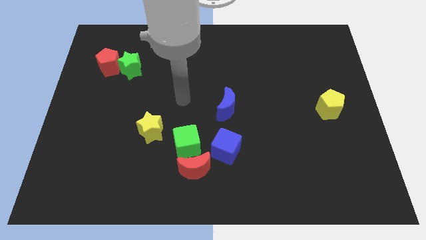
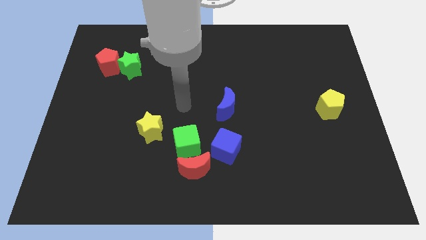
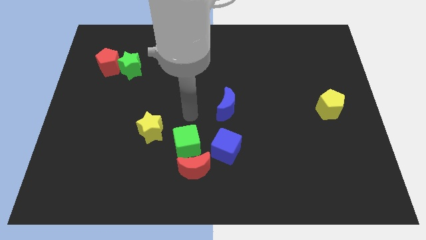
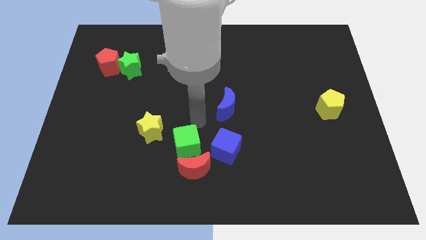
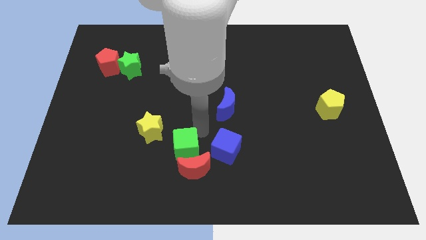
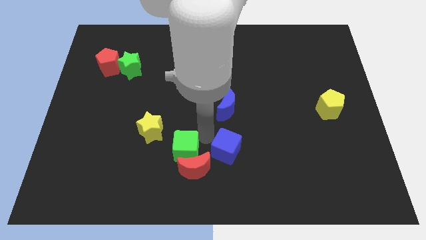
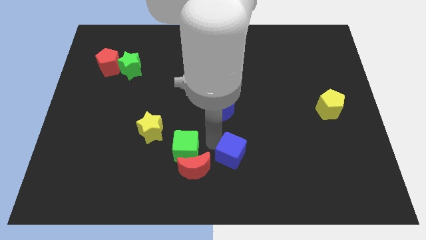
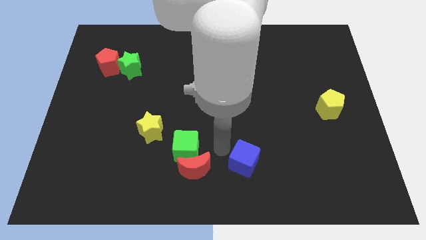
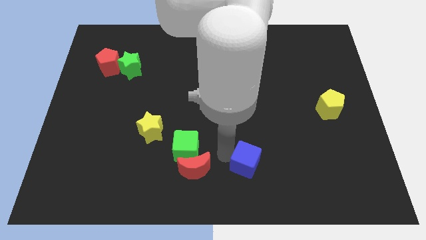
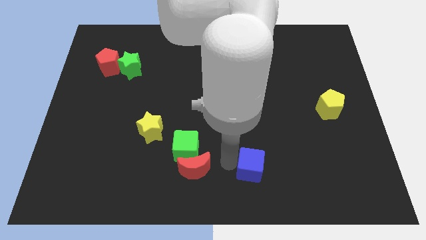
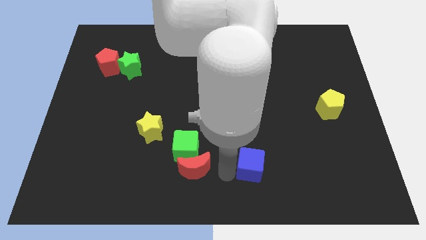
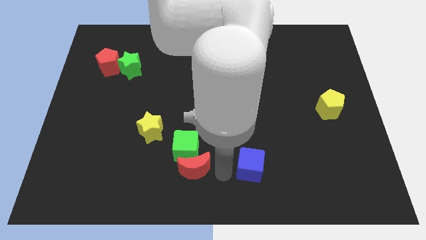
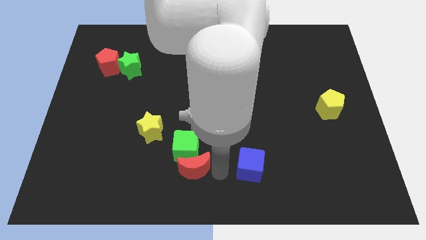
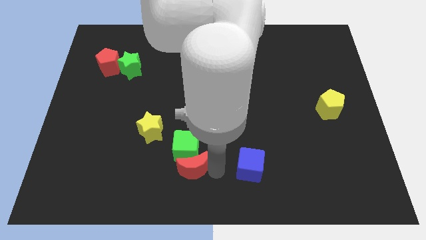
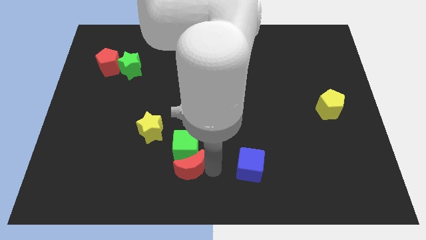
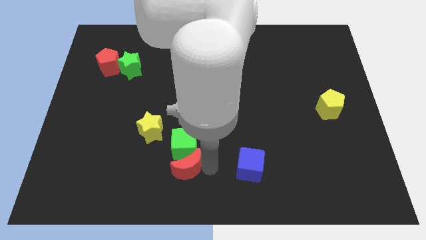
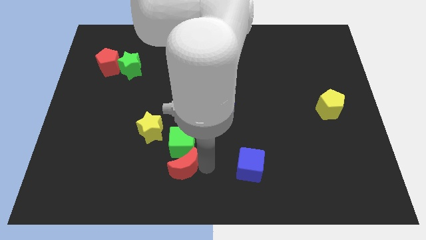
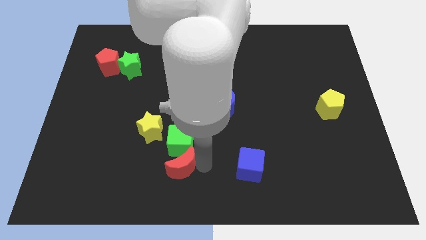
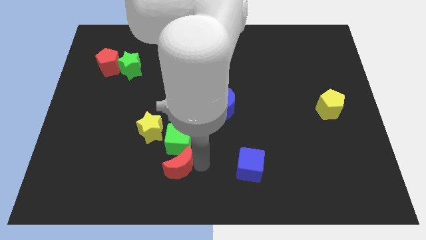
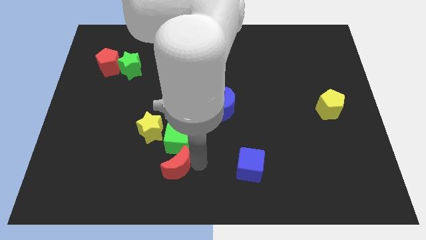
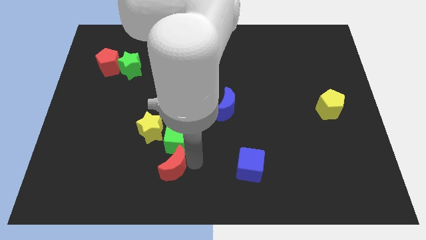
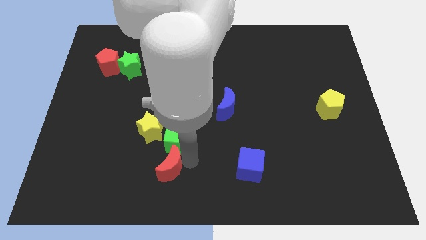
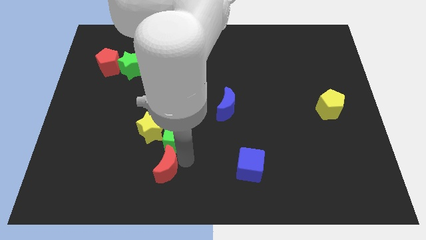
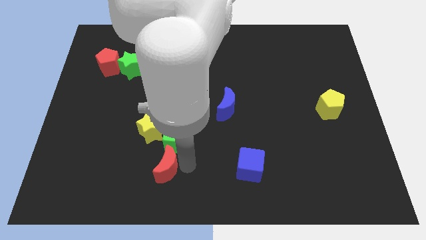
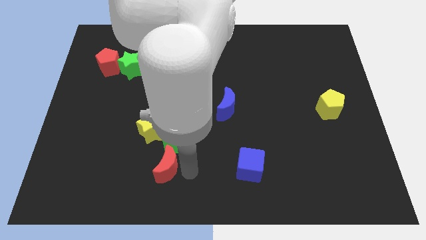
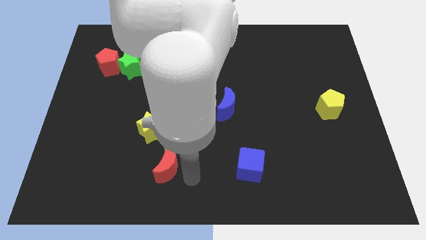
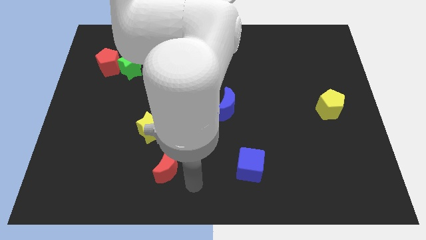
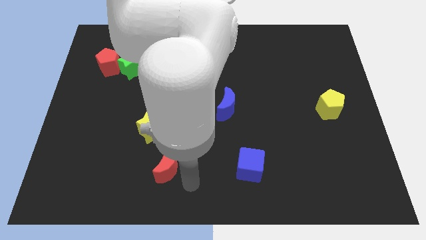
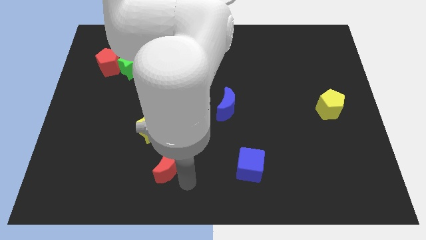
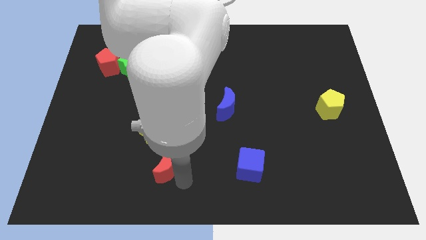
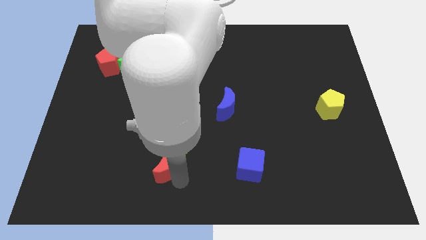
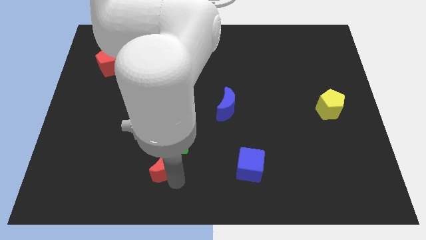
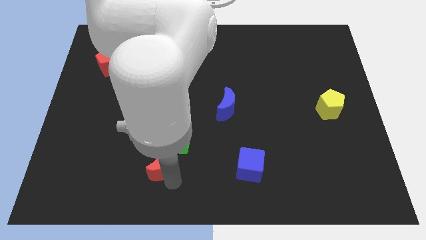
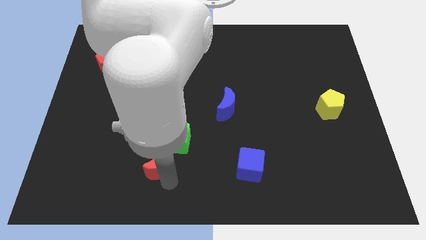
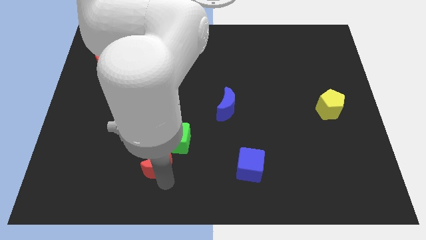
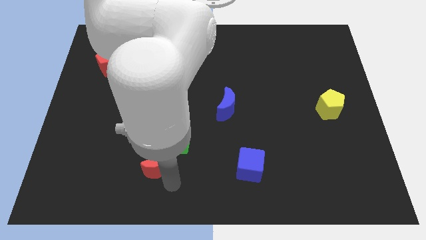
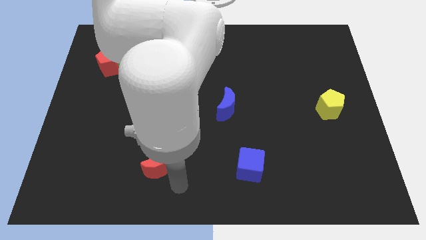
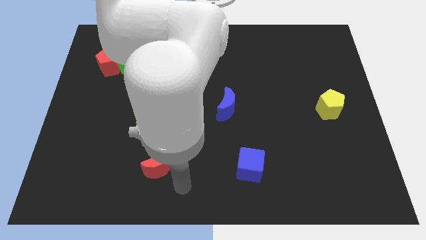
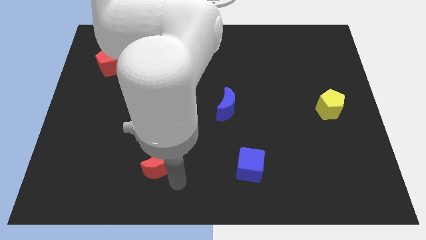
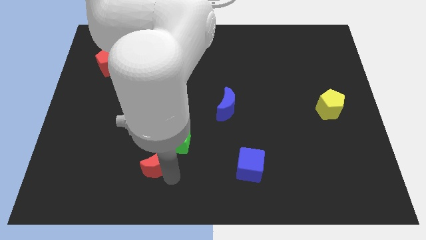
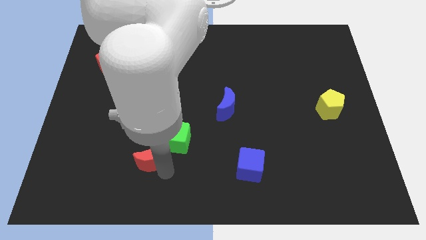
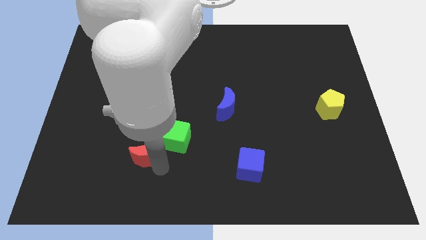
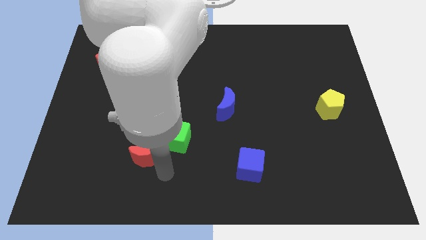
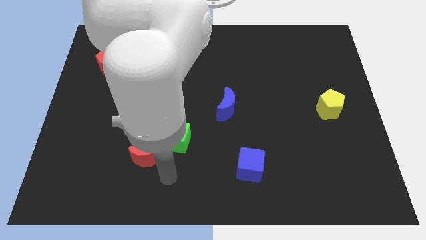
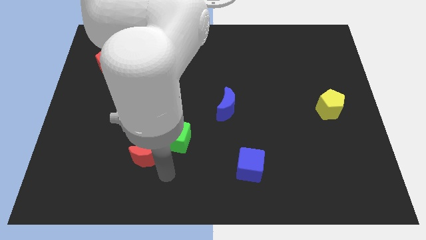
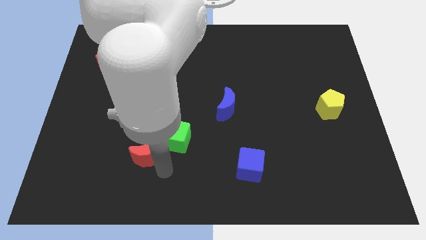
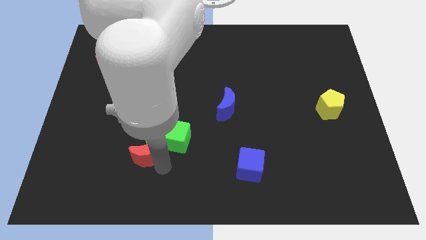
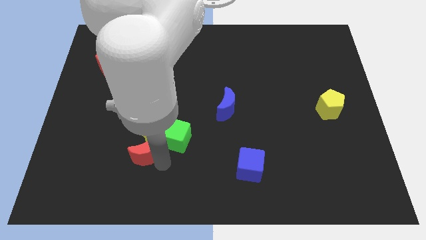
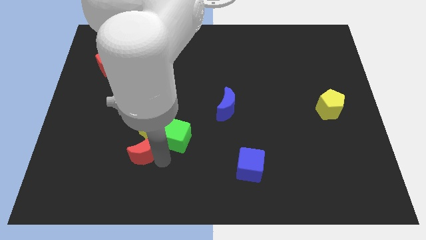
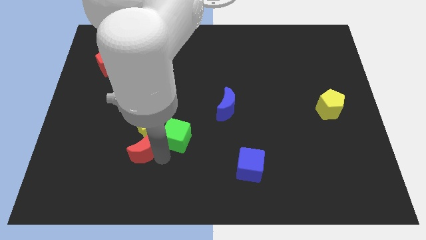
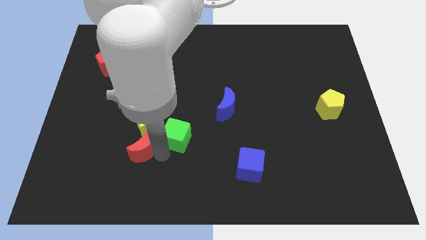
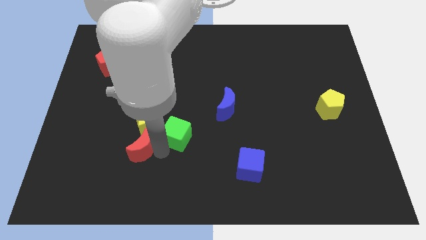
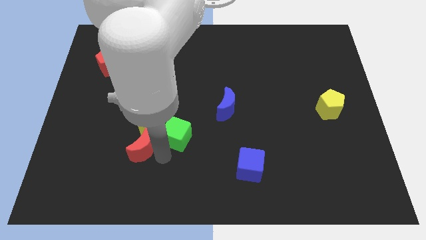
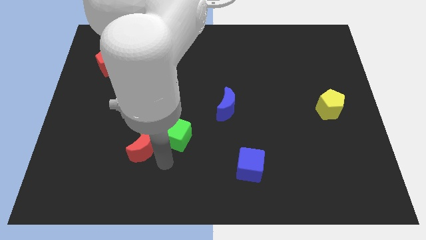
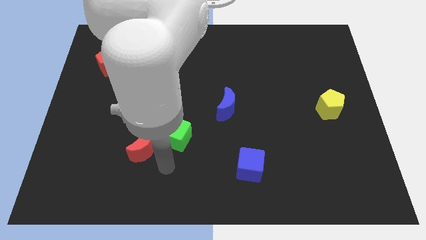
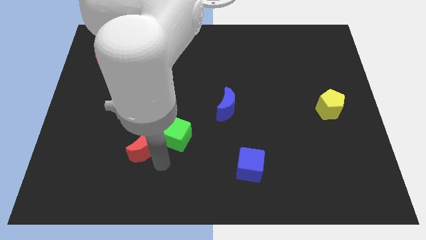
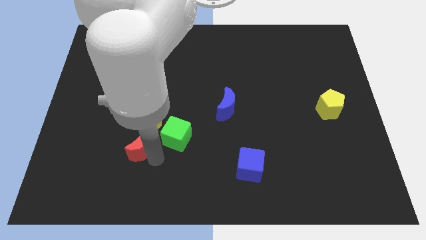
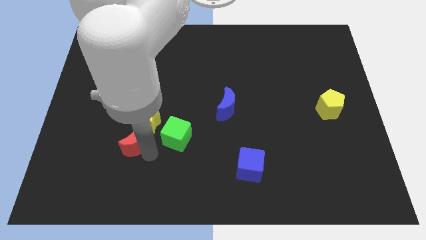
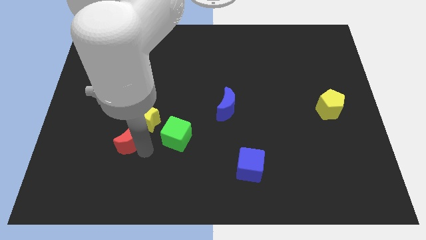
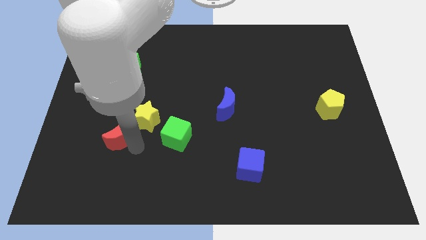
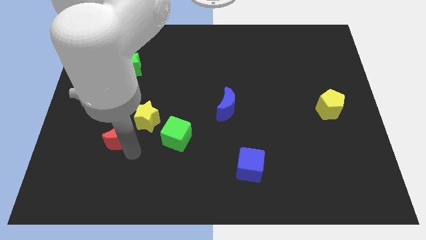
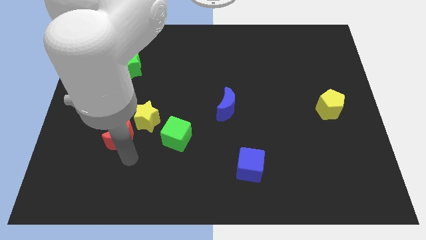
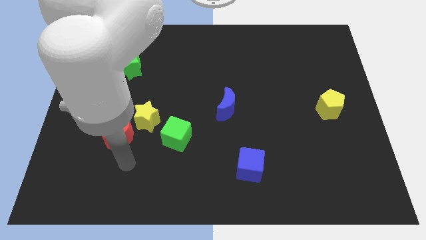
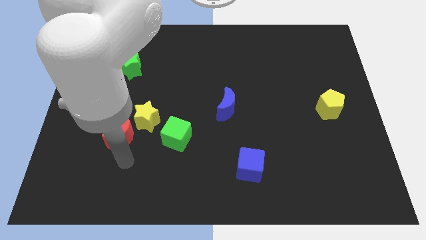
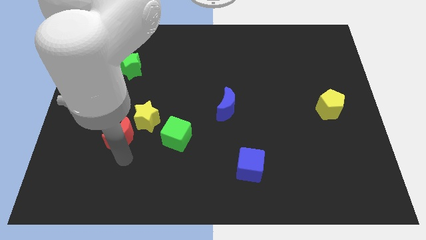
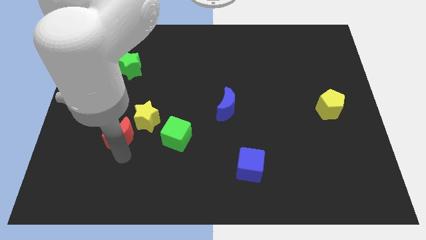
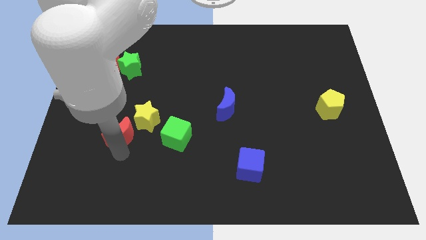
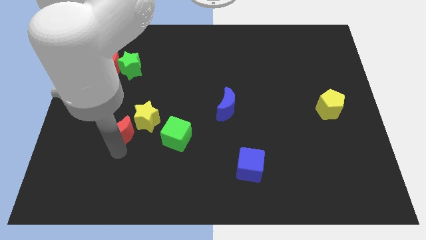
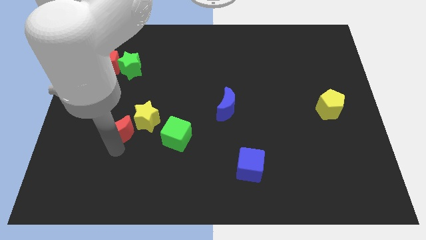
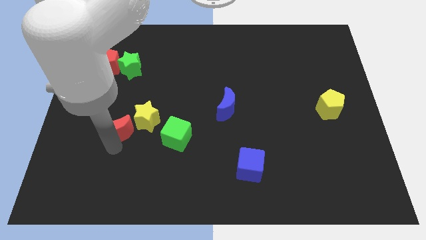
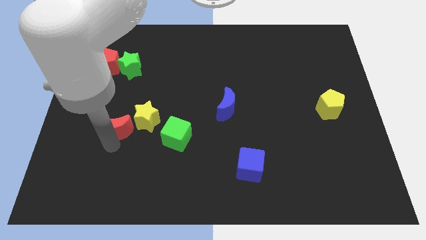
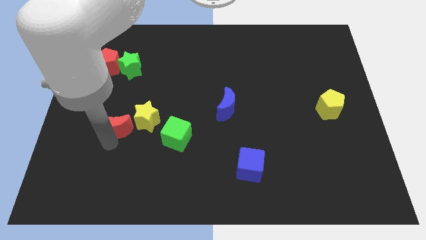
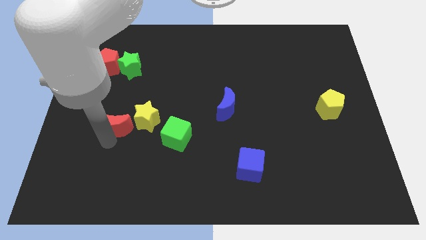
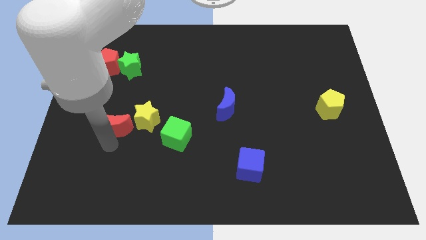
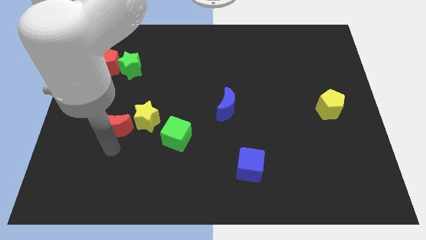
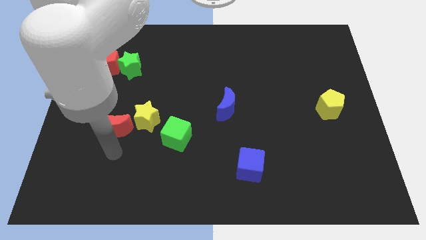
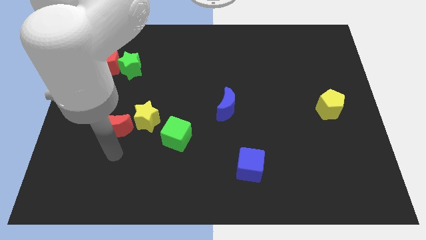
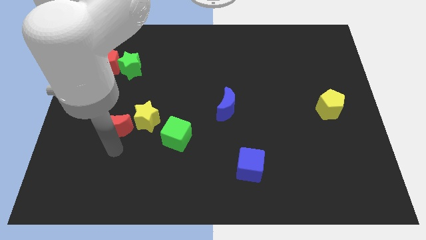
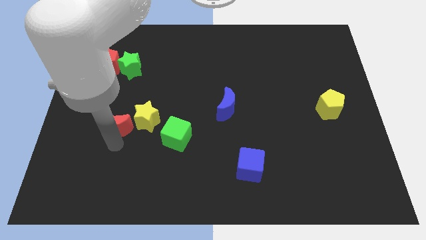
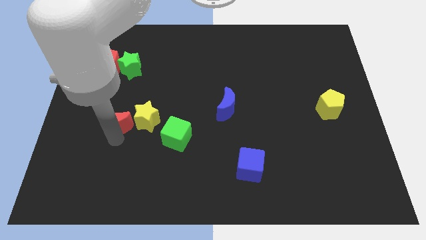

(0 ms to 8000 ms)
slide the red moon upwards and to the left diagonally
